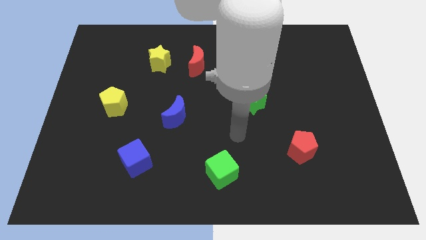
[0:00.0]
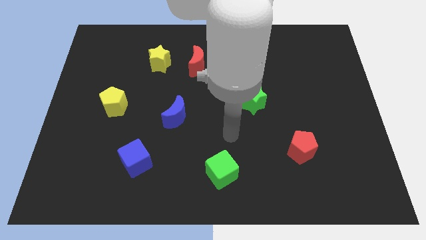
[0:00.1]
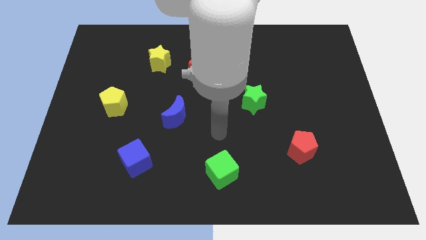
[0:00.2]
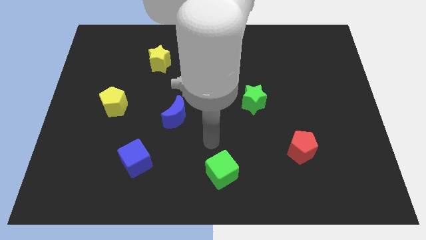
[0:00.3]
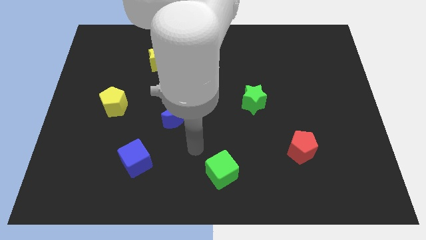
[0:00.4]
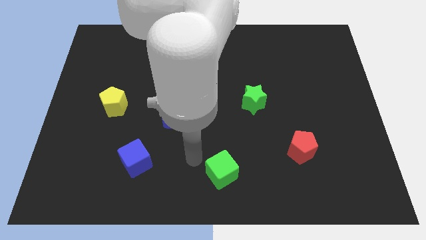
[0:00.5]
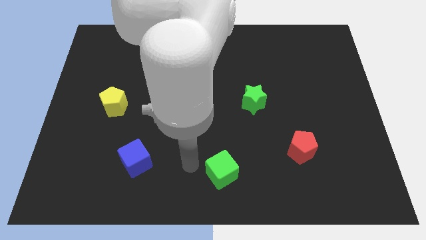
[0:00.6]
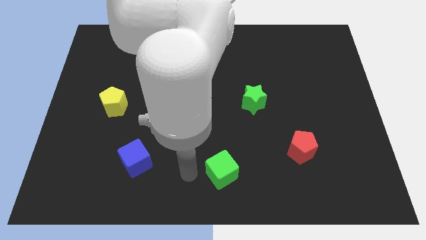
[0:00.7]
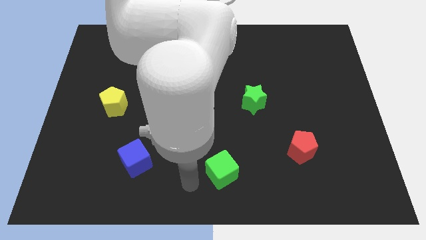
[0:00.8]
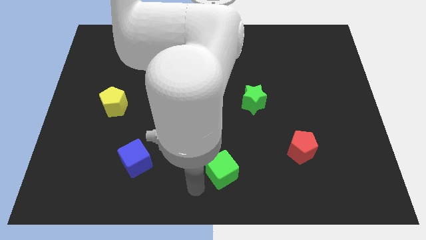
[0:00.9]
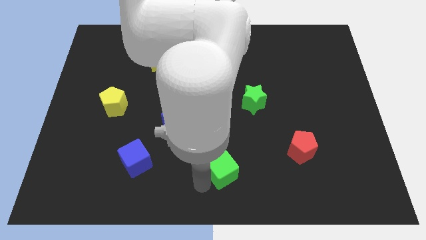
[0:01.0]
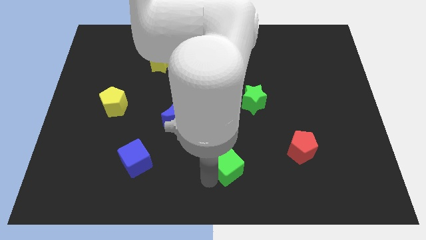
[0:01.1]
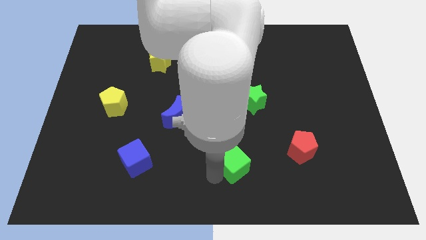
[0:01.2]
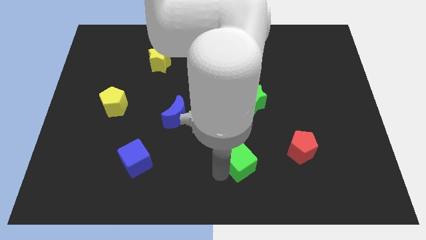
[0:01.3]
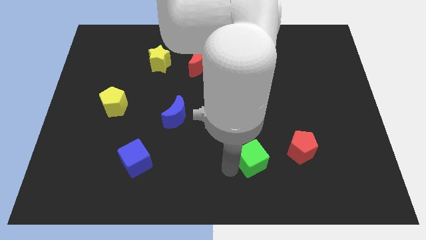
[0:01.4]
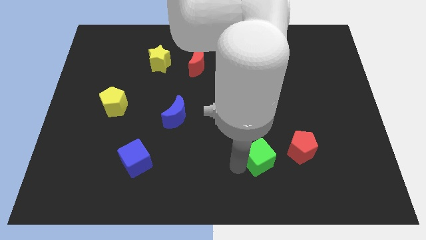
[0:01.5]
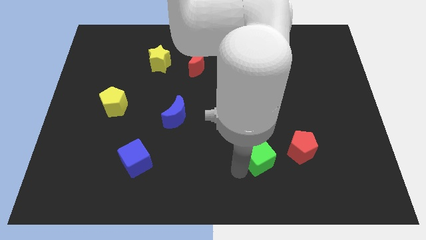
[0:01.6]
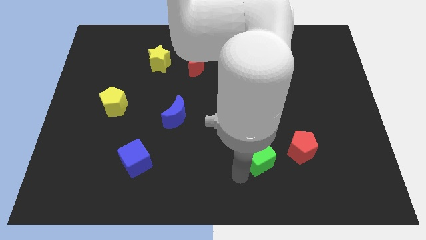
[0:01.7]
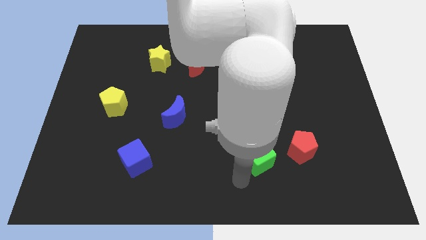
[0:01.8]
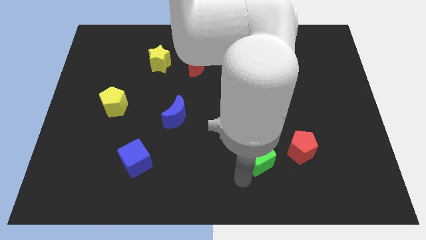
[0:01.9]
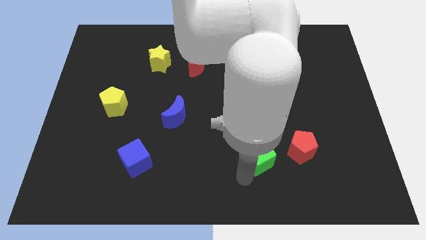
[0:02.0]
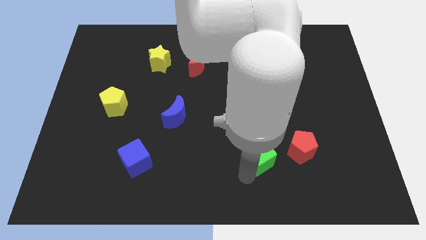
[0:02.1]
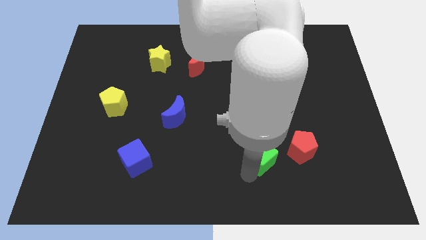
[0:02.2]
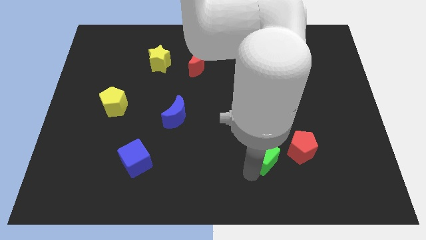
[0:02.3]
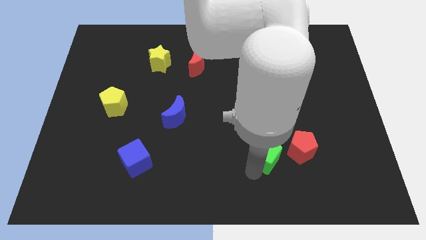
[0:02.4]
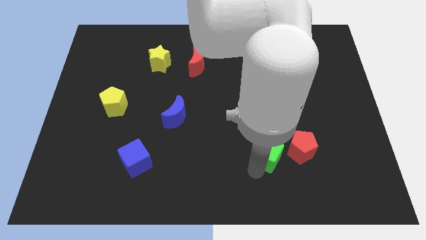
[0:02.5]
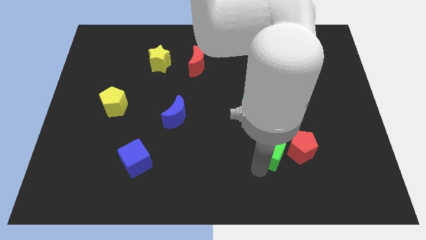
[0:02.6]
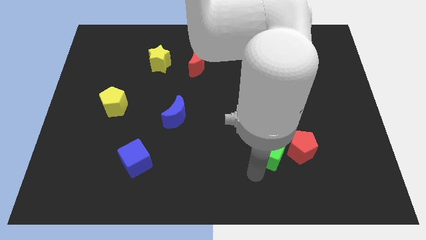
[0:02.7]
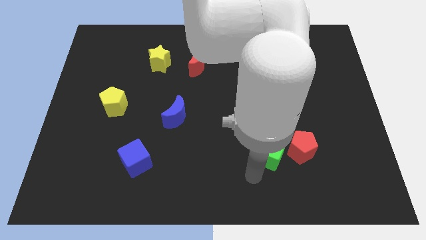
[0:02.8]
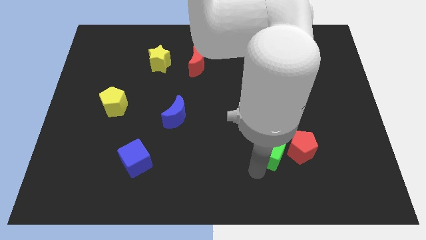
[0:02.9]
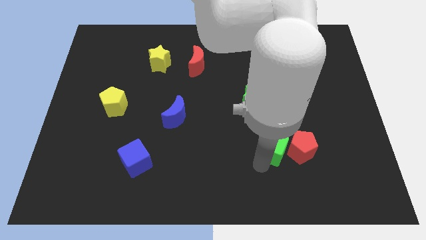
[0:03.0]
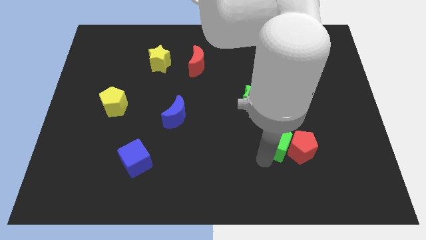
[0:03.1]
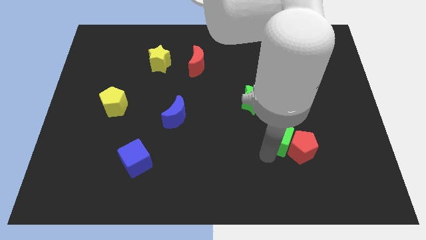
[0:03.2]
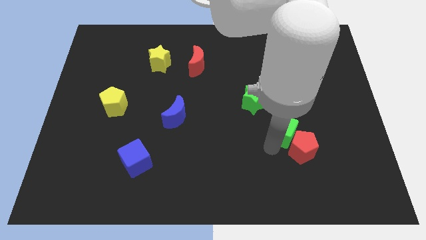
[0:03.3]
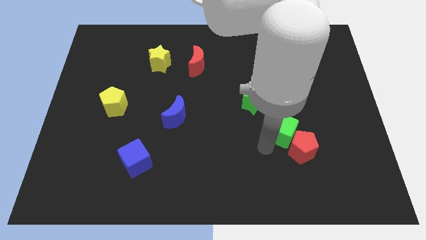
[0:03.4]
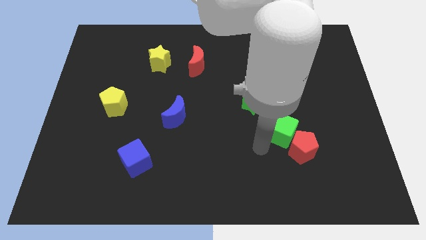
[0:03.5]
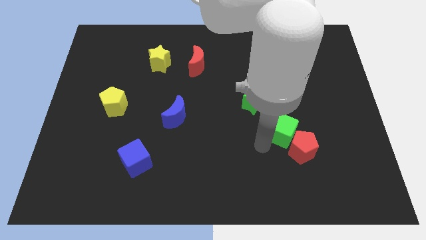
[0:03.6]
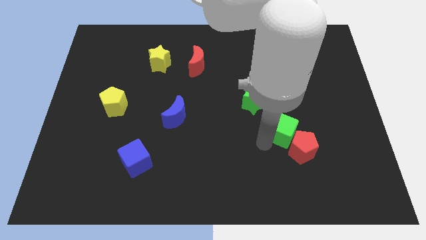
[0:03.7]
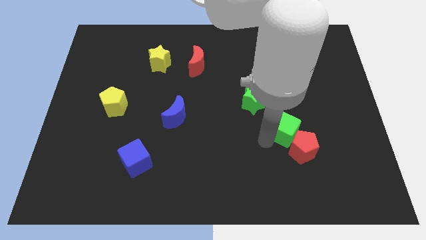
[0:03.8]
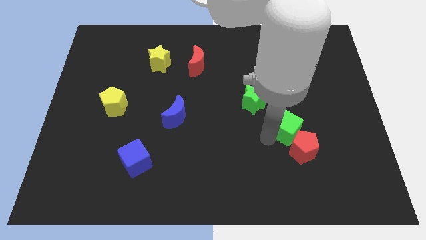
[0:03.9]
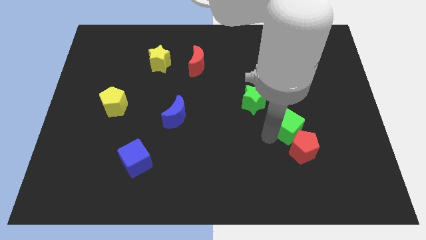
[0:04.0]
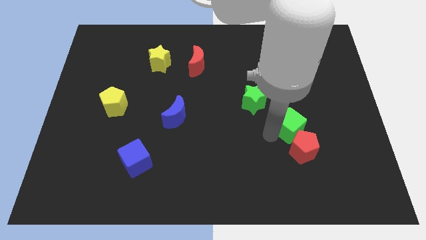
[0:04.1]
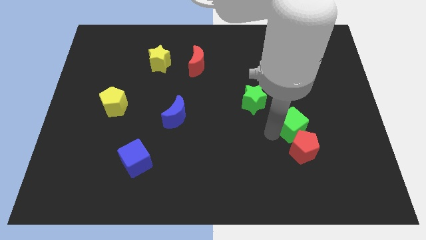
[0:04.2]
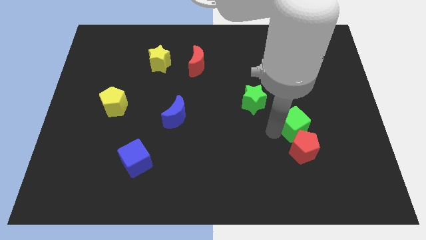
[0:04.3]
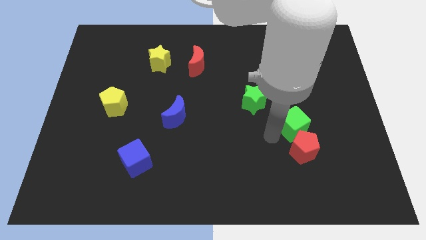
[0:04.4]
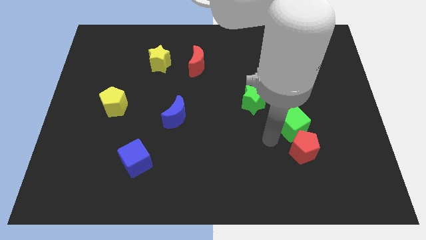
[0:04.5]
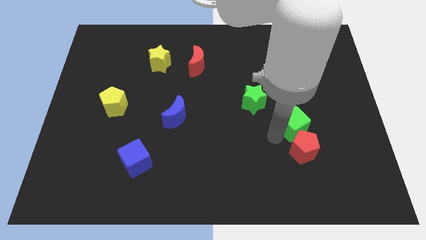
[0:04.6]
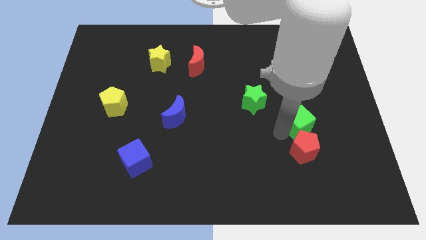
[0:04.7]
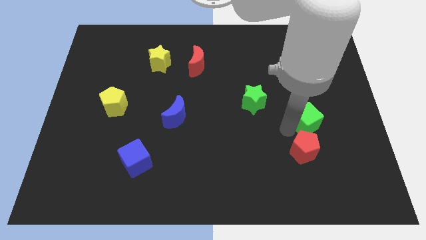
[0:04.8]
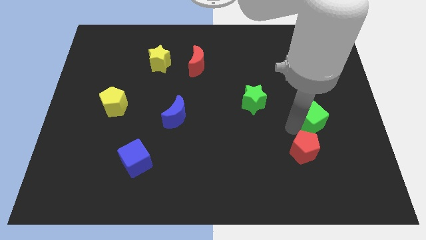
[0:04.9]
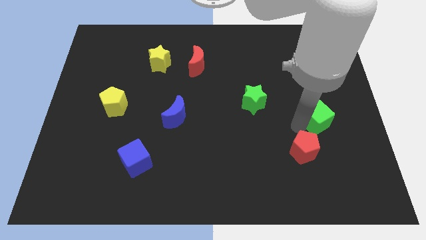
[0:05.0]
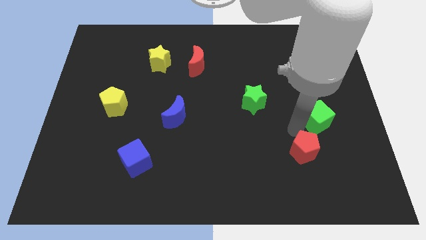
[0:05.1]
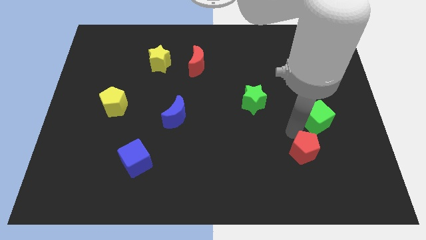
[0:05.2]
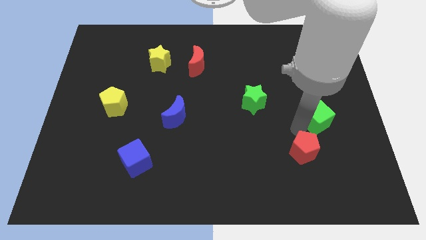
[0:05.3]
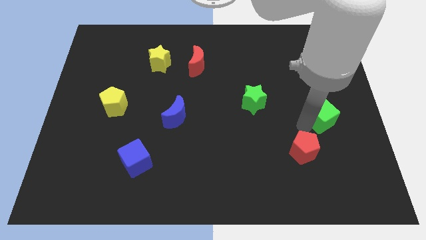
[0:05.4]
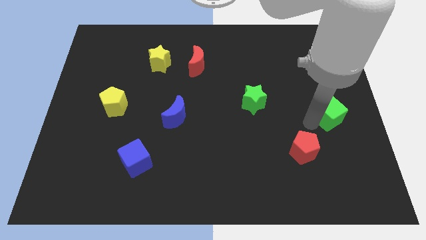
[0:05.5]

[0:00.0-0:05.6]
push the green cube to the right side

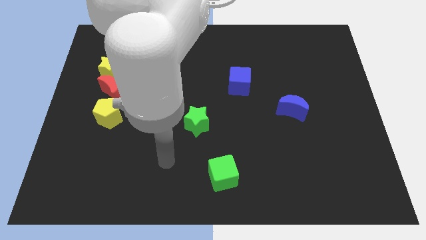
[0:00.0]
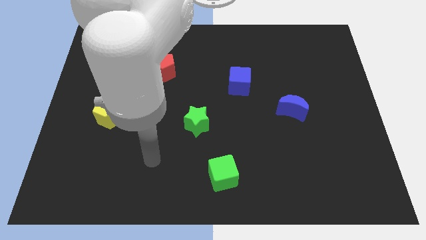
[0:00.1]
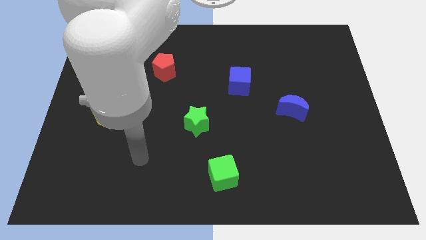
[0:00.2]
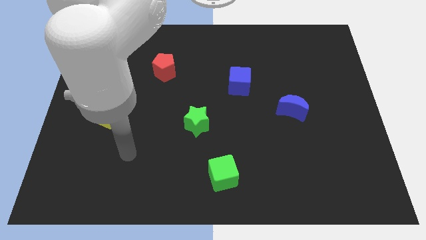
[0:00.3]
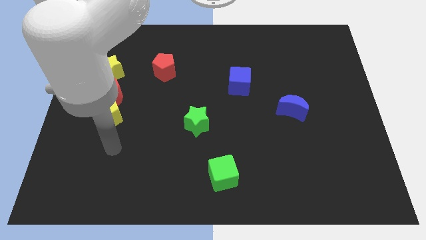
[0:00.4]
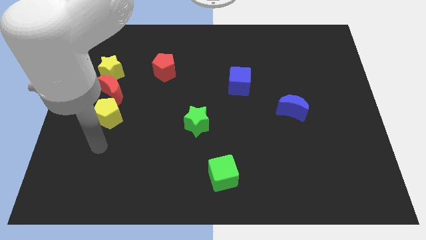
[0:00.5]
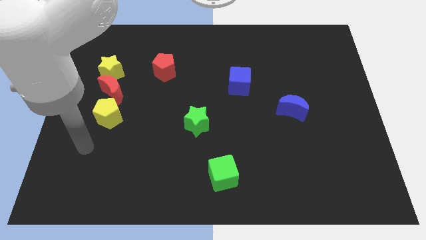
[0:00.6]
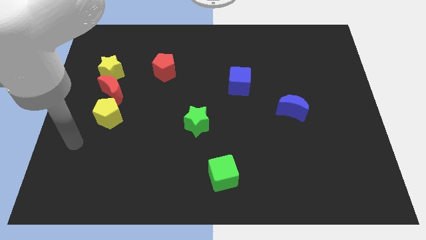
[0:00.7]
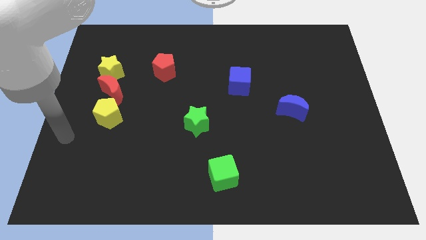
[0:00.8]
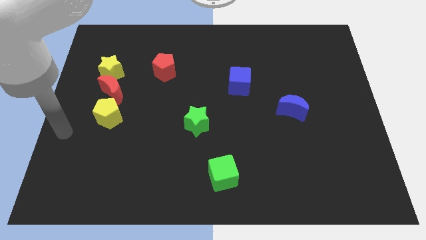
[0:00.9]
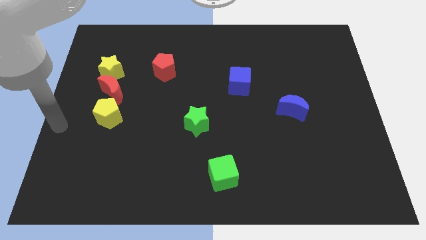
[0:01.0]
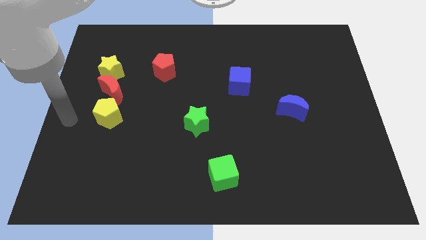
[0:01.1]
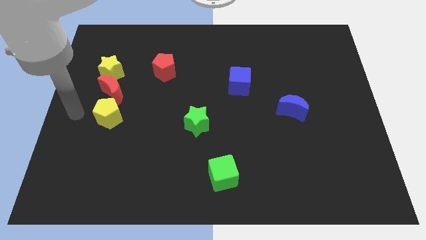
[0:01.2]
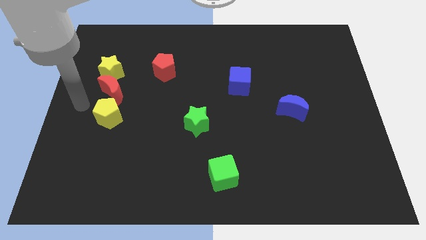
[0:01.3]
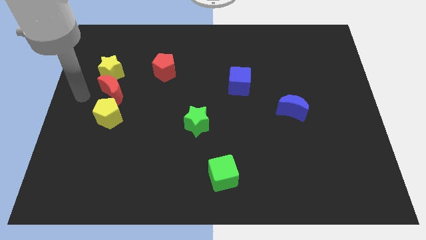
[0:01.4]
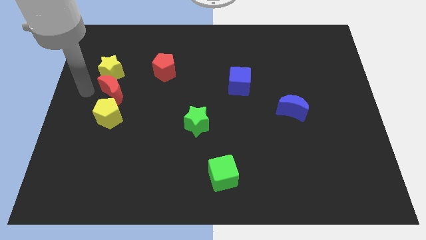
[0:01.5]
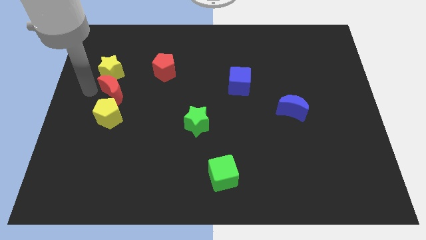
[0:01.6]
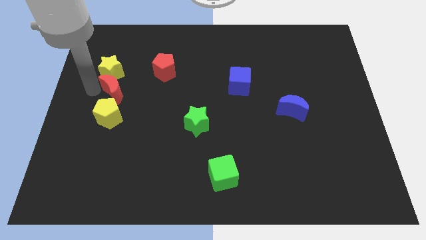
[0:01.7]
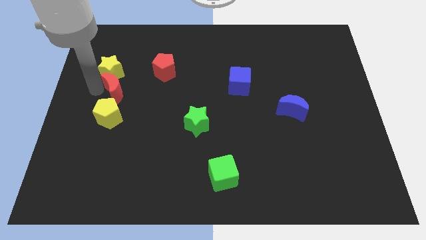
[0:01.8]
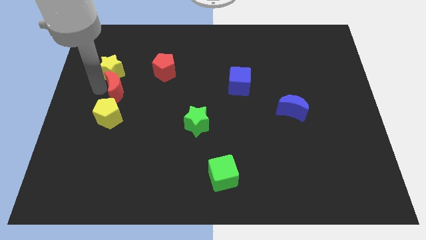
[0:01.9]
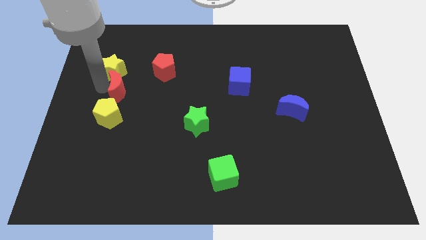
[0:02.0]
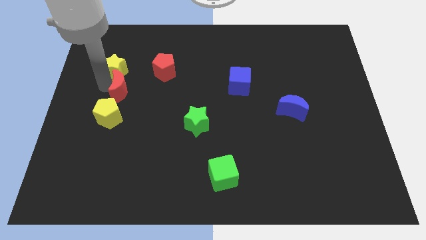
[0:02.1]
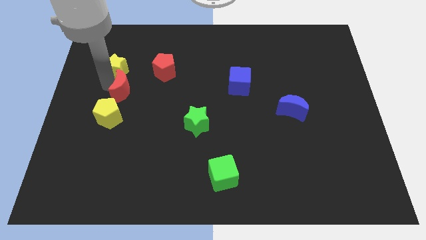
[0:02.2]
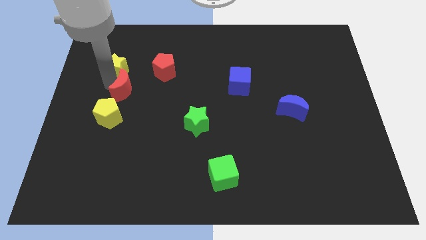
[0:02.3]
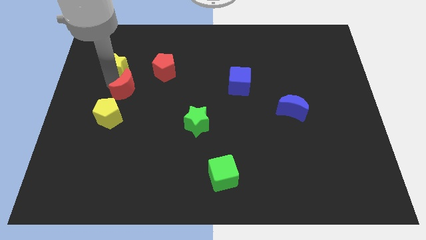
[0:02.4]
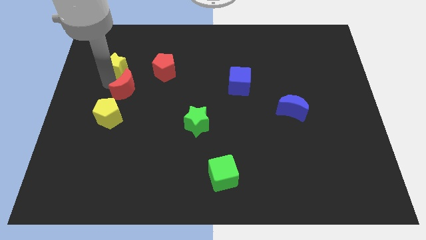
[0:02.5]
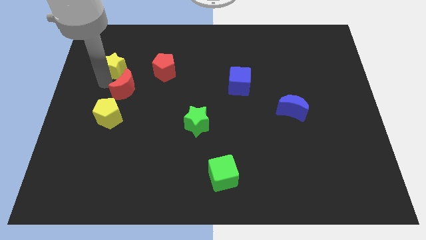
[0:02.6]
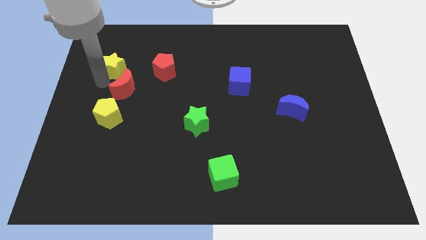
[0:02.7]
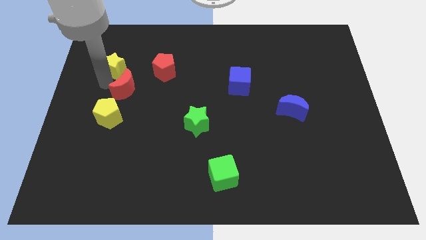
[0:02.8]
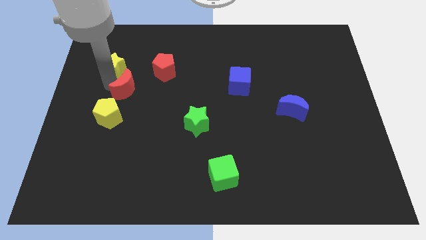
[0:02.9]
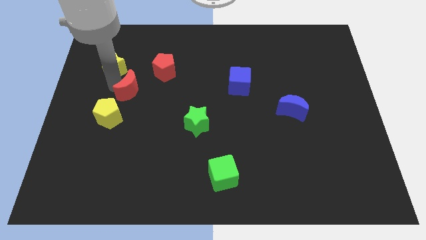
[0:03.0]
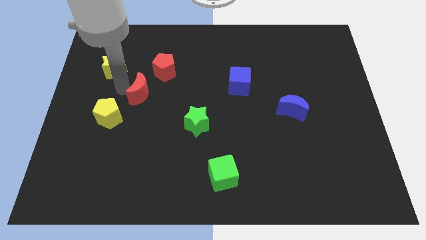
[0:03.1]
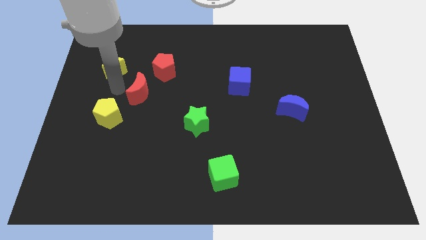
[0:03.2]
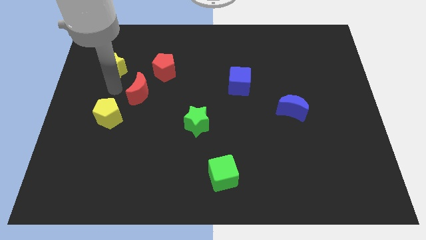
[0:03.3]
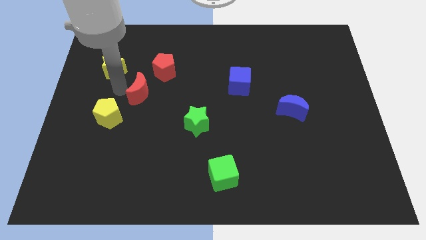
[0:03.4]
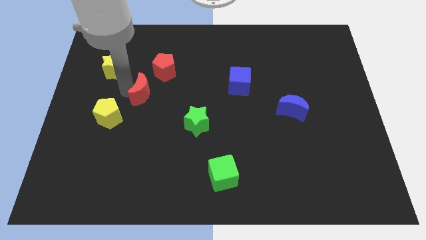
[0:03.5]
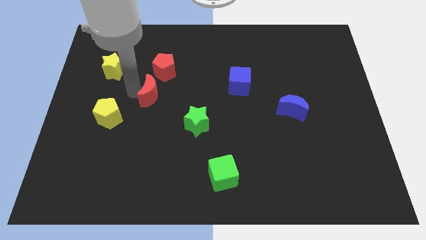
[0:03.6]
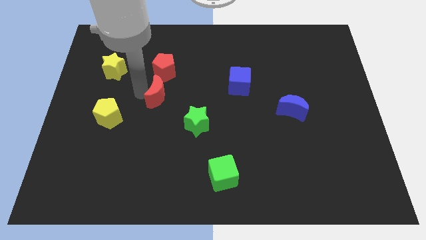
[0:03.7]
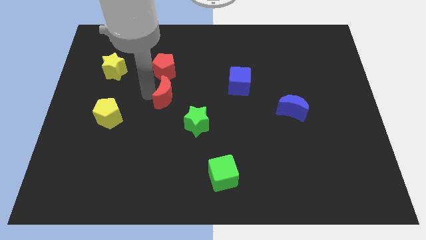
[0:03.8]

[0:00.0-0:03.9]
move the red moon to the center
